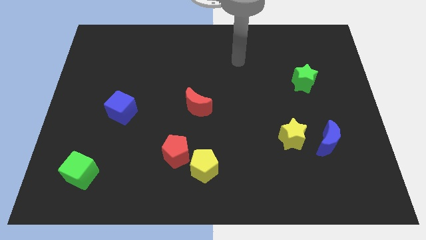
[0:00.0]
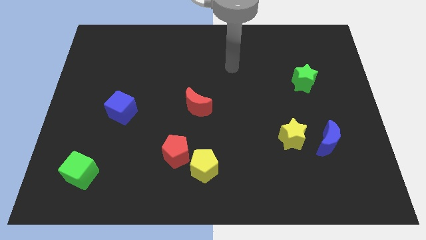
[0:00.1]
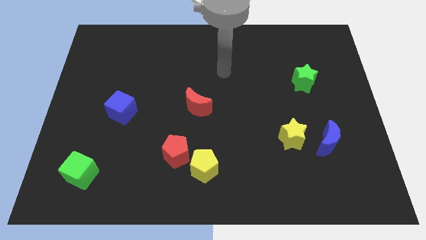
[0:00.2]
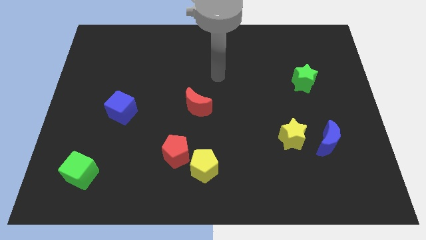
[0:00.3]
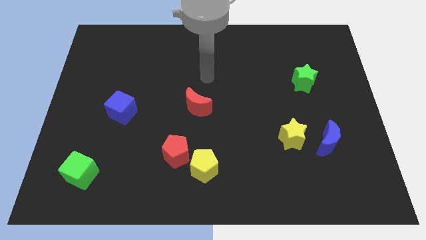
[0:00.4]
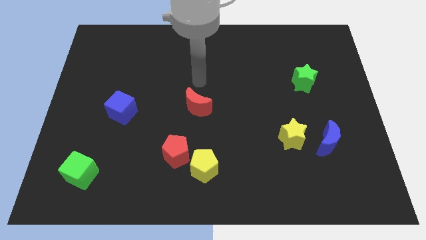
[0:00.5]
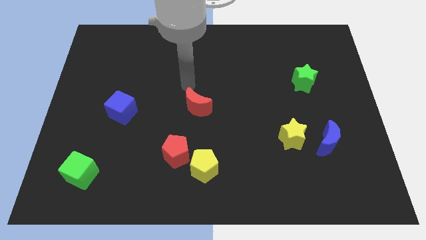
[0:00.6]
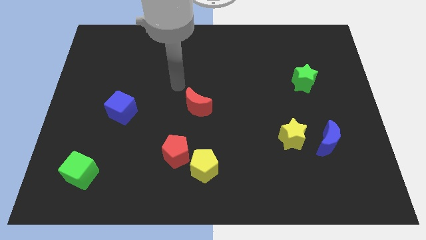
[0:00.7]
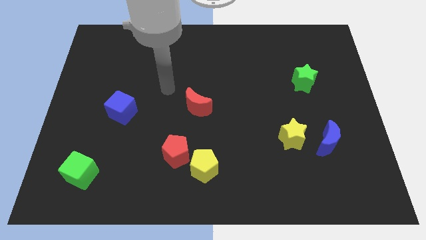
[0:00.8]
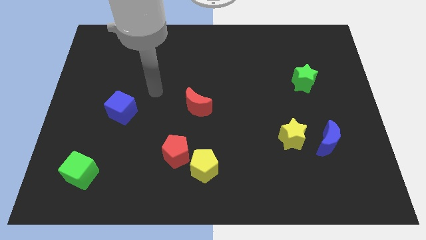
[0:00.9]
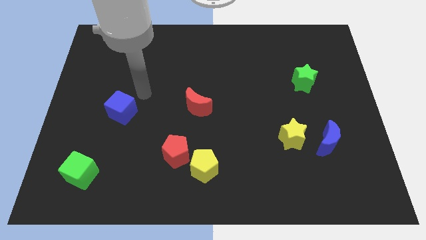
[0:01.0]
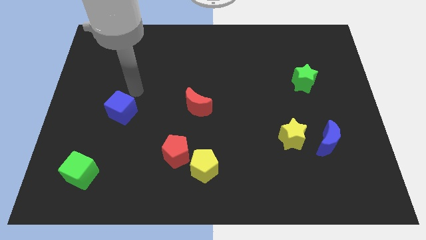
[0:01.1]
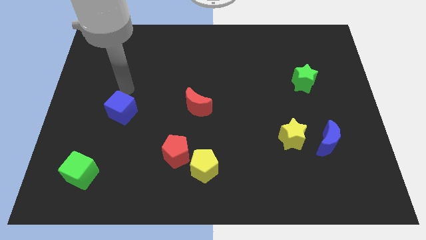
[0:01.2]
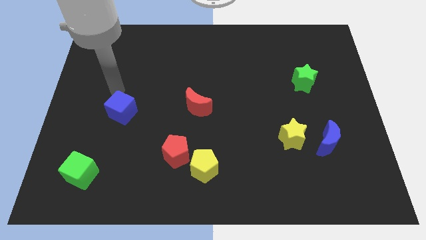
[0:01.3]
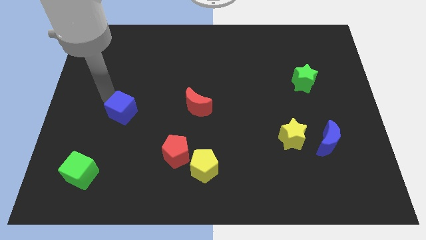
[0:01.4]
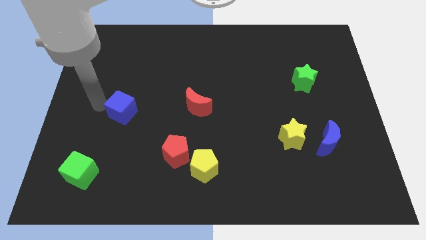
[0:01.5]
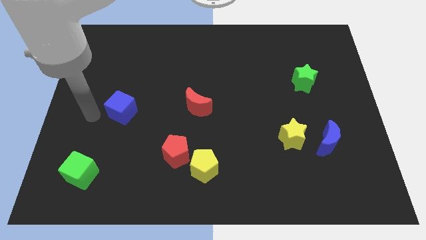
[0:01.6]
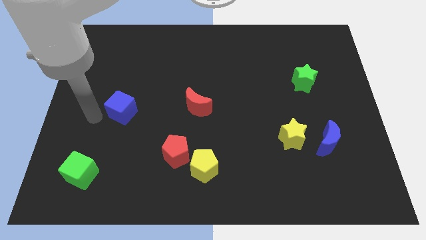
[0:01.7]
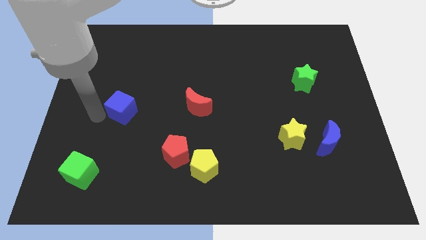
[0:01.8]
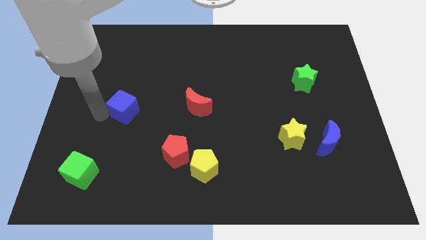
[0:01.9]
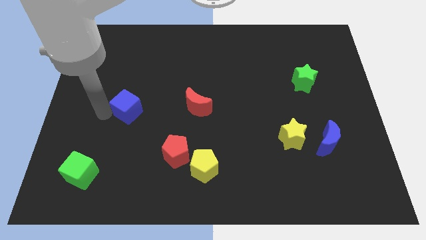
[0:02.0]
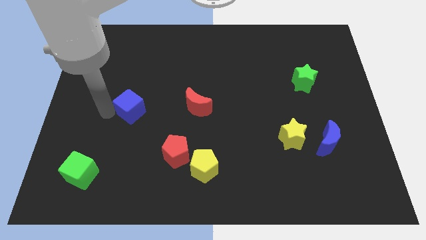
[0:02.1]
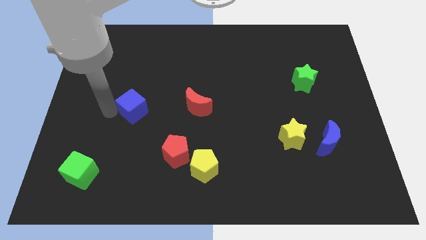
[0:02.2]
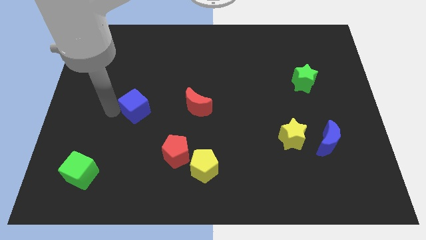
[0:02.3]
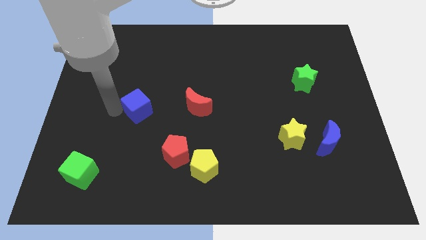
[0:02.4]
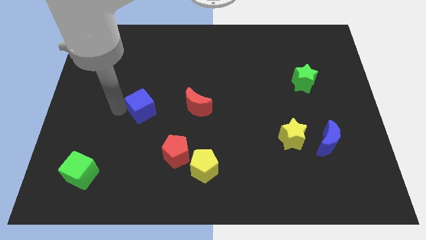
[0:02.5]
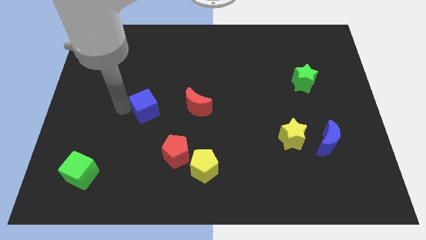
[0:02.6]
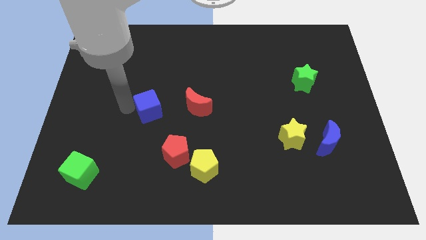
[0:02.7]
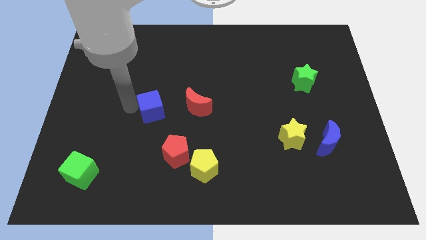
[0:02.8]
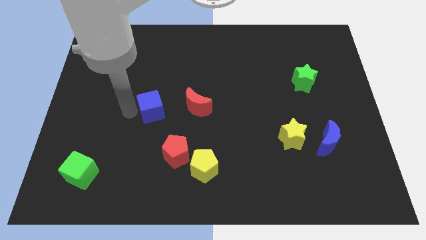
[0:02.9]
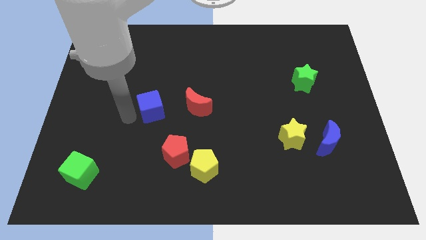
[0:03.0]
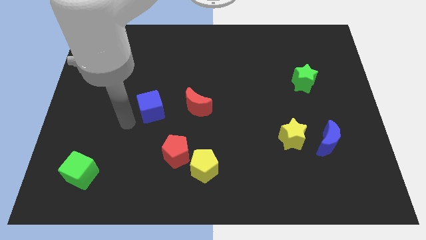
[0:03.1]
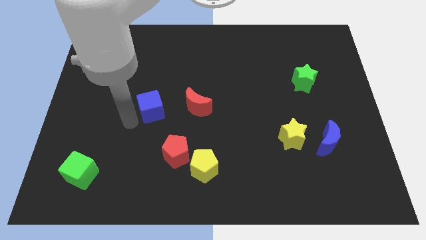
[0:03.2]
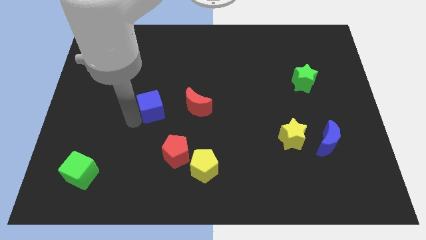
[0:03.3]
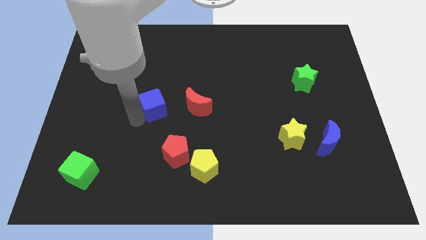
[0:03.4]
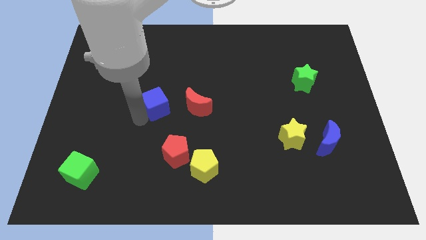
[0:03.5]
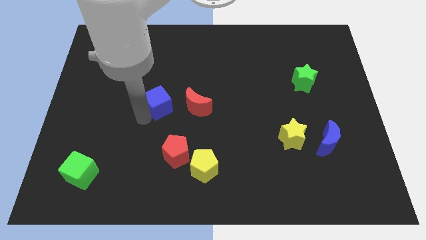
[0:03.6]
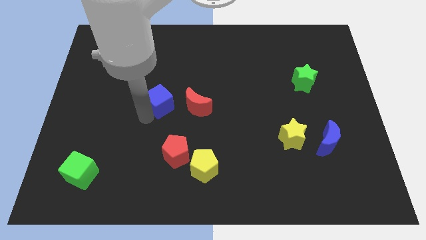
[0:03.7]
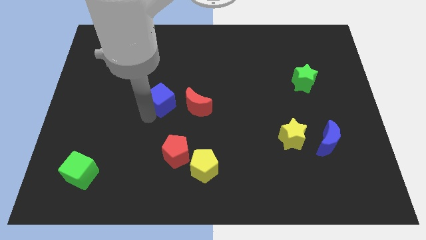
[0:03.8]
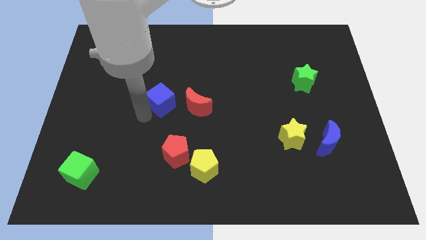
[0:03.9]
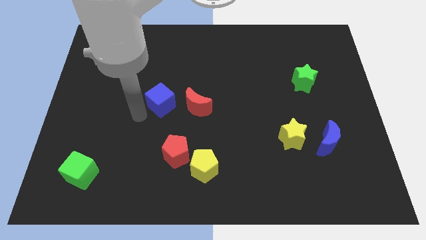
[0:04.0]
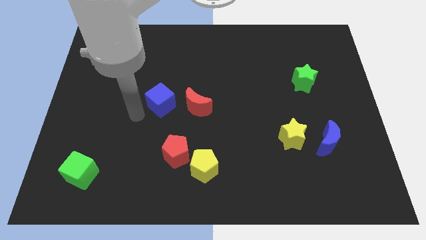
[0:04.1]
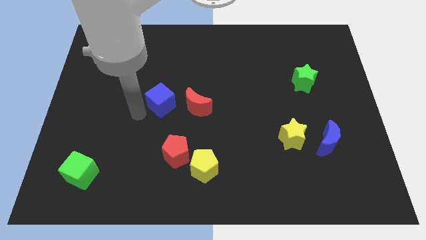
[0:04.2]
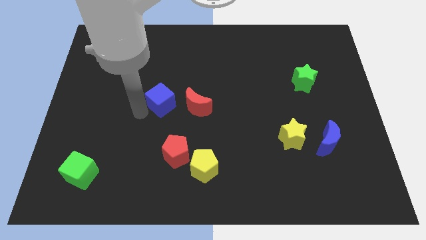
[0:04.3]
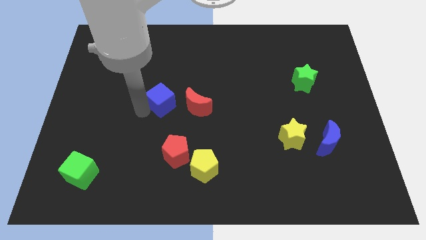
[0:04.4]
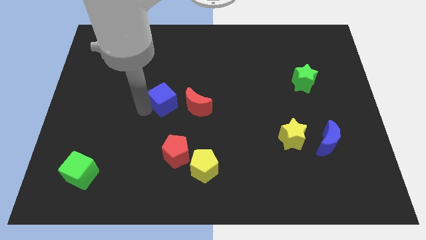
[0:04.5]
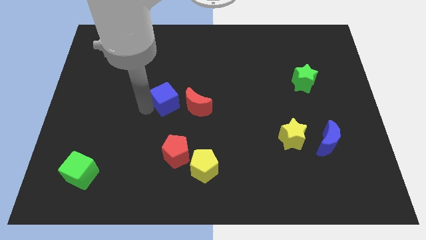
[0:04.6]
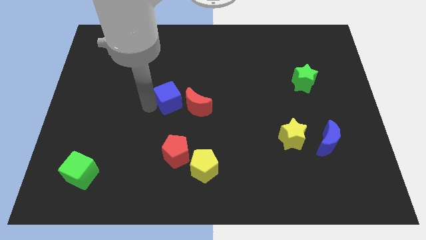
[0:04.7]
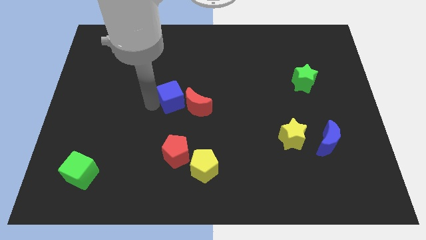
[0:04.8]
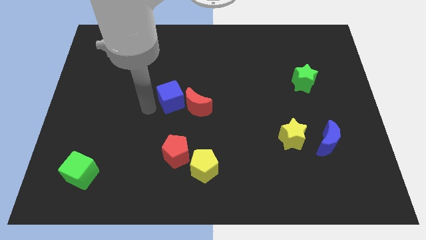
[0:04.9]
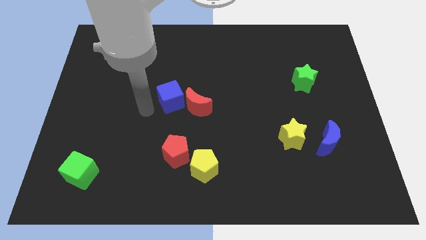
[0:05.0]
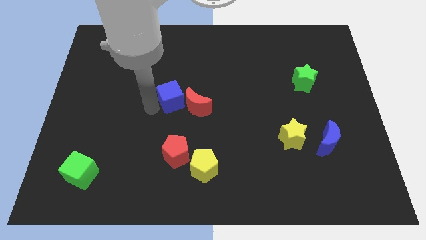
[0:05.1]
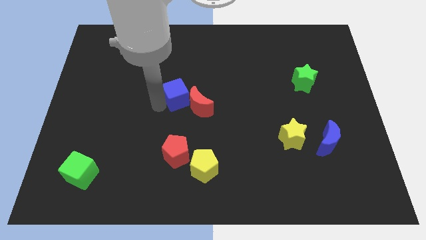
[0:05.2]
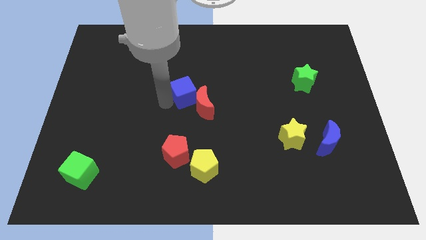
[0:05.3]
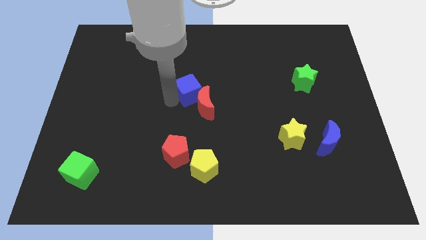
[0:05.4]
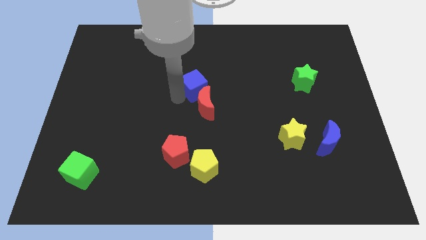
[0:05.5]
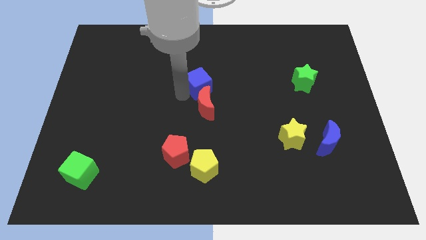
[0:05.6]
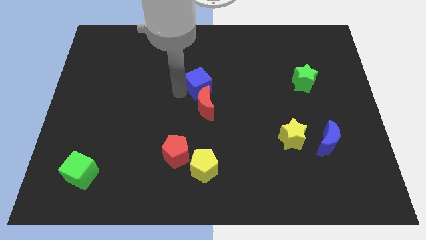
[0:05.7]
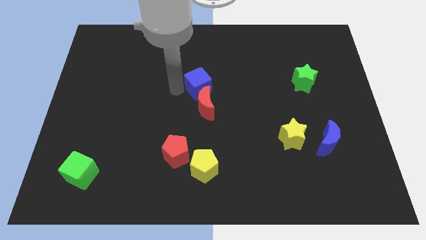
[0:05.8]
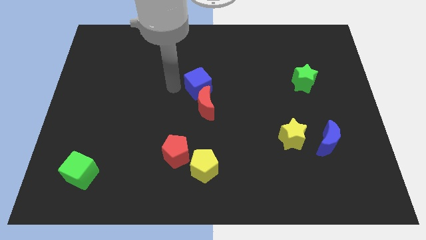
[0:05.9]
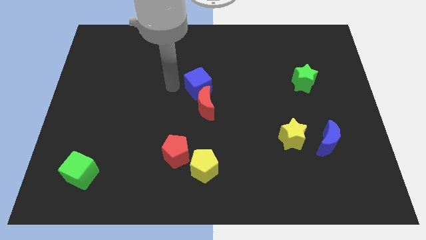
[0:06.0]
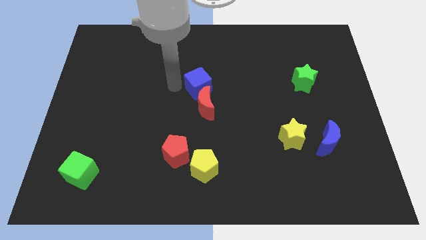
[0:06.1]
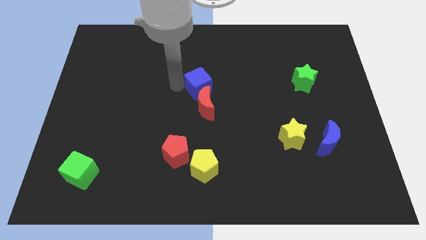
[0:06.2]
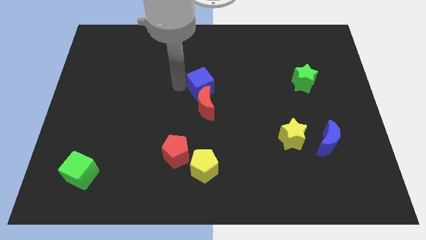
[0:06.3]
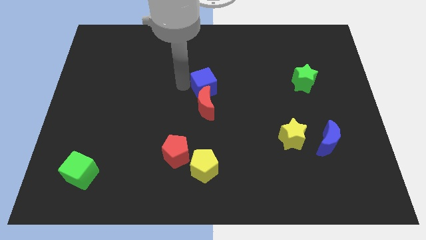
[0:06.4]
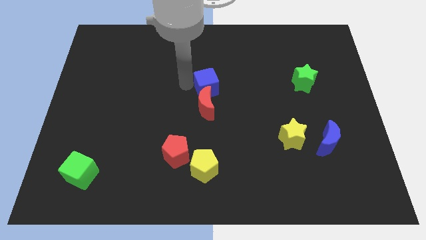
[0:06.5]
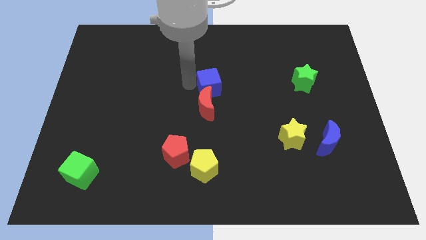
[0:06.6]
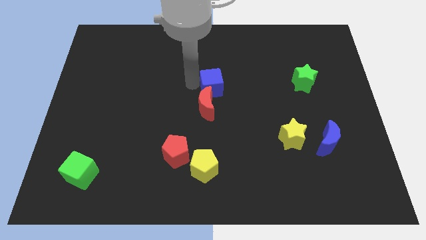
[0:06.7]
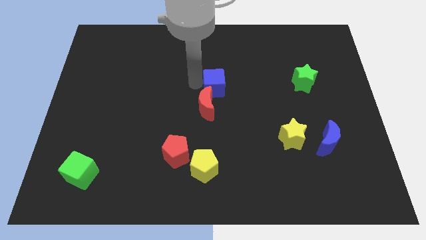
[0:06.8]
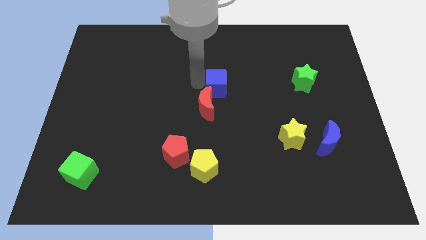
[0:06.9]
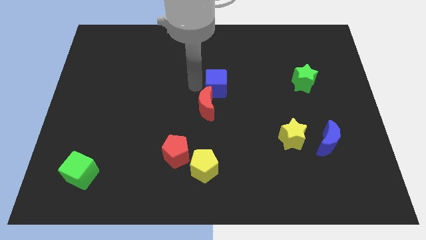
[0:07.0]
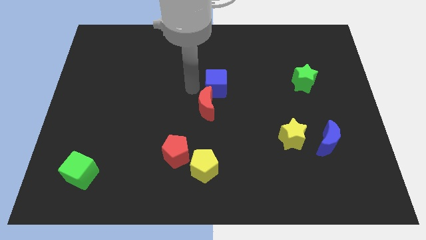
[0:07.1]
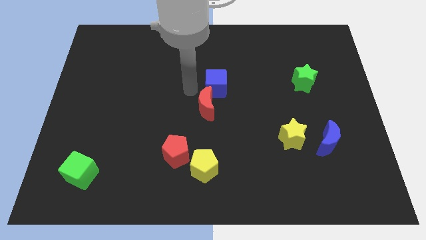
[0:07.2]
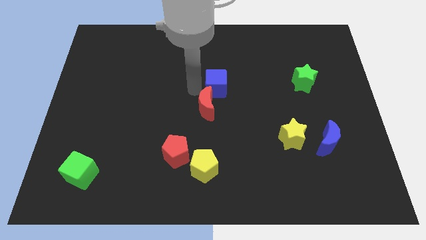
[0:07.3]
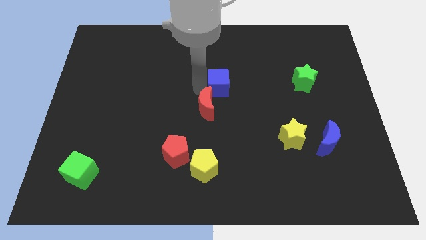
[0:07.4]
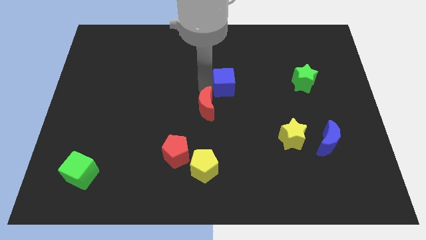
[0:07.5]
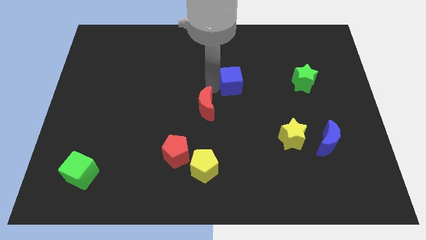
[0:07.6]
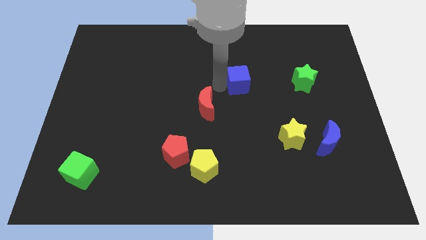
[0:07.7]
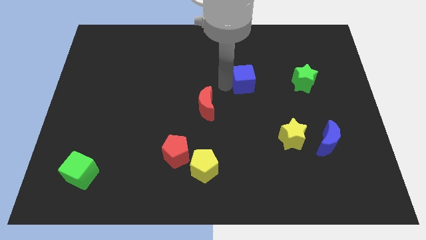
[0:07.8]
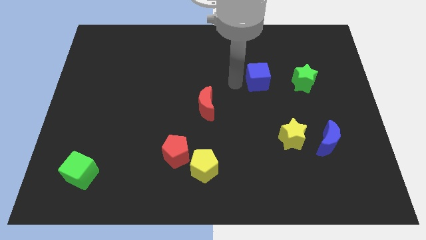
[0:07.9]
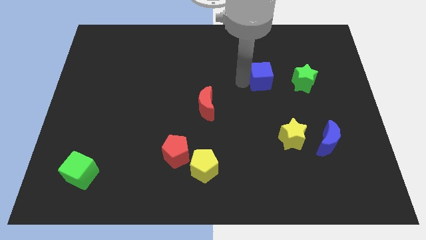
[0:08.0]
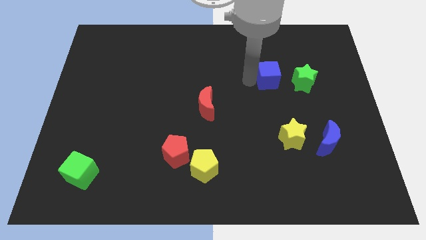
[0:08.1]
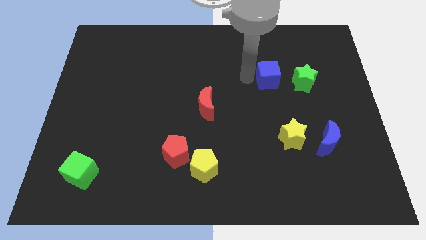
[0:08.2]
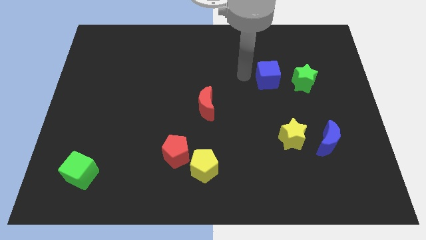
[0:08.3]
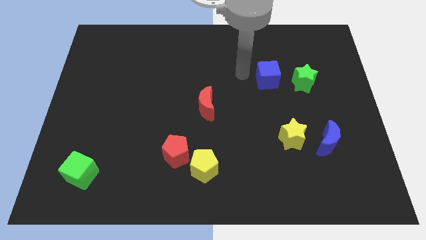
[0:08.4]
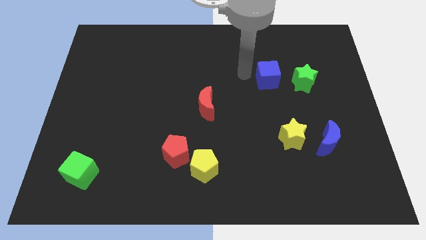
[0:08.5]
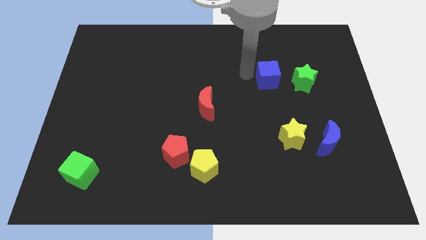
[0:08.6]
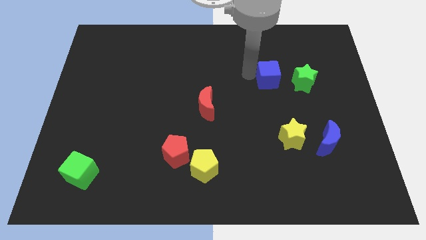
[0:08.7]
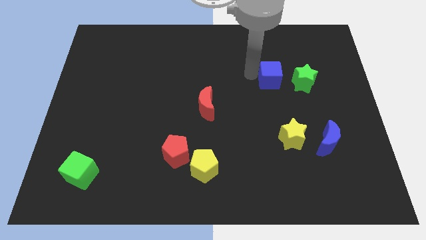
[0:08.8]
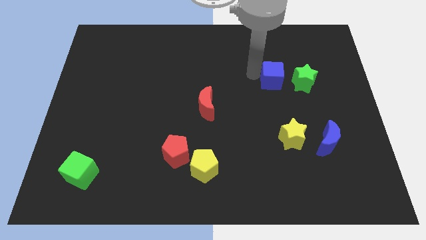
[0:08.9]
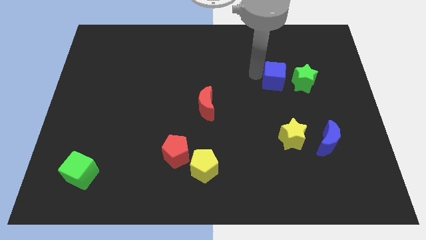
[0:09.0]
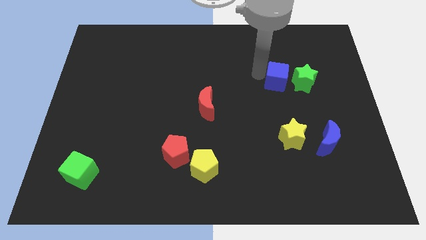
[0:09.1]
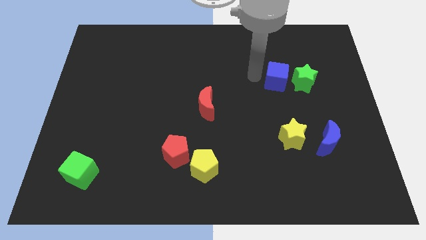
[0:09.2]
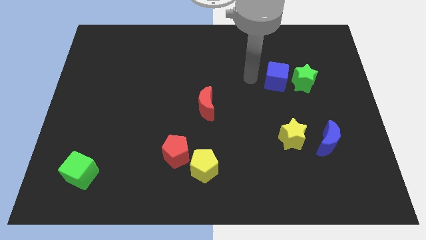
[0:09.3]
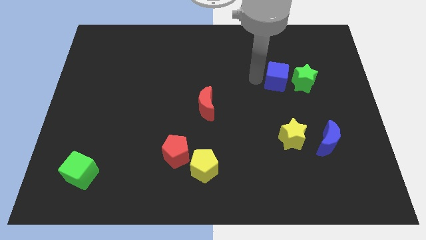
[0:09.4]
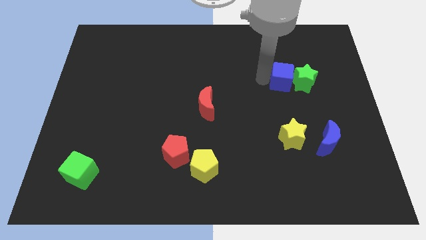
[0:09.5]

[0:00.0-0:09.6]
push the blue cube close to the green star
